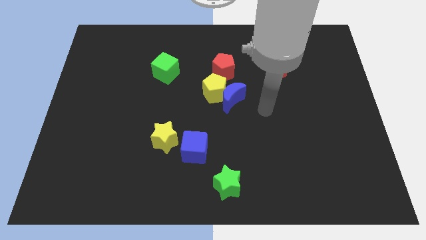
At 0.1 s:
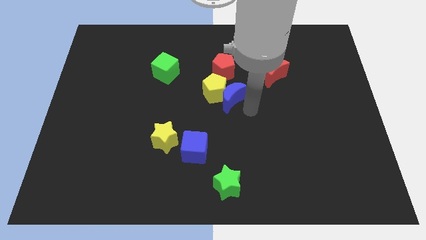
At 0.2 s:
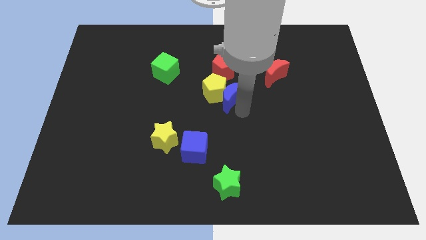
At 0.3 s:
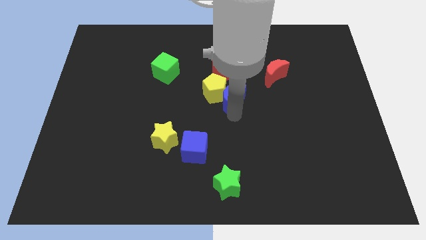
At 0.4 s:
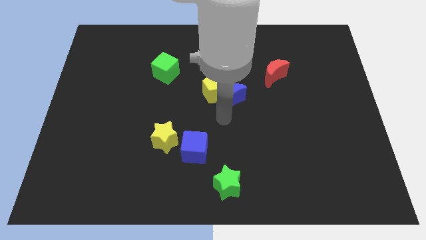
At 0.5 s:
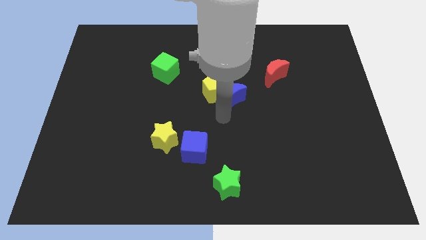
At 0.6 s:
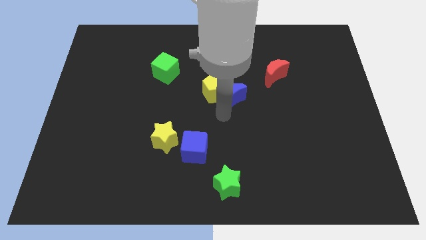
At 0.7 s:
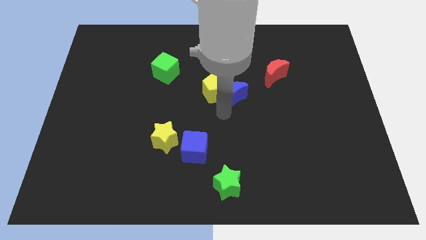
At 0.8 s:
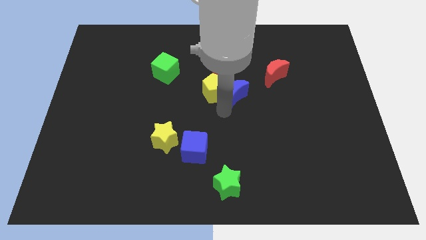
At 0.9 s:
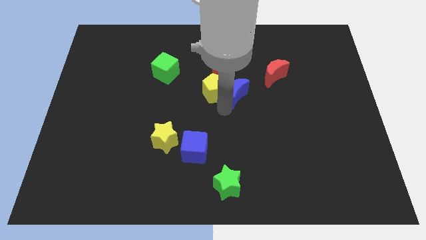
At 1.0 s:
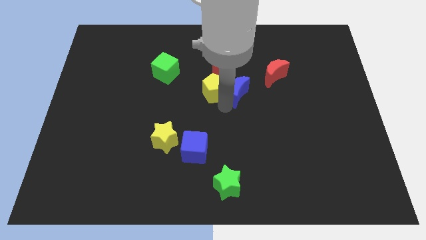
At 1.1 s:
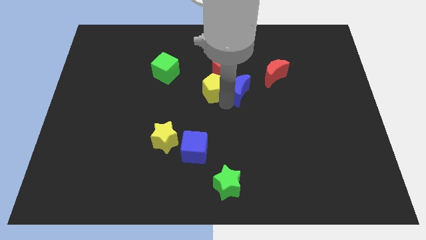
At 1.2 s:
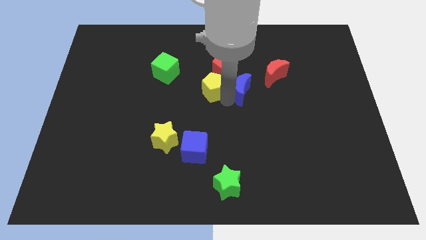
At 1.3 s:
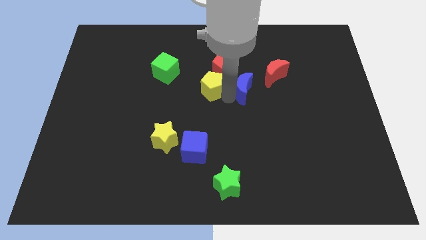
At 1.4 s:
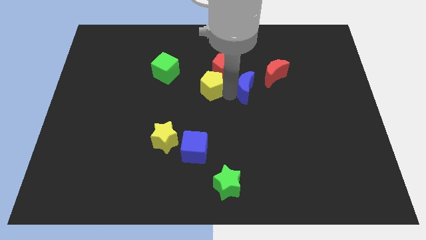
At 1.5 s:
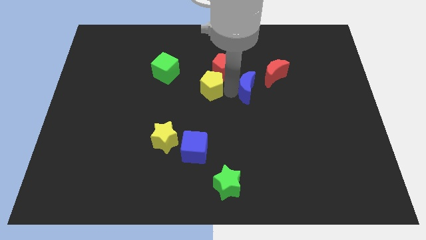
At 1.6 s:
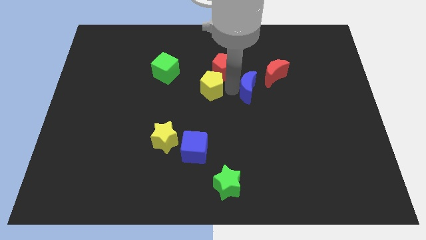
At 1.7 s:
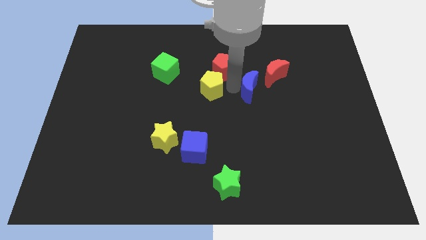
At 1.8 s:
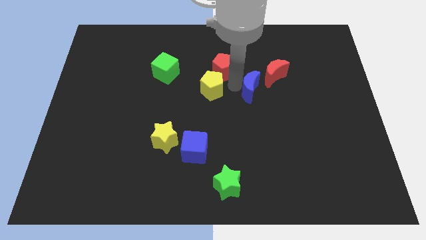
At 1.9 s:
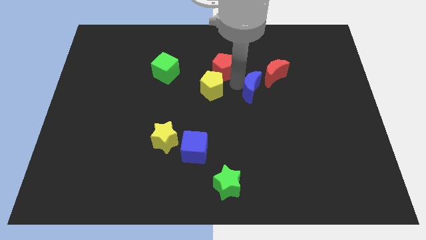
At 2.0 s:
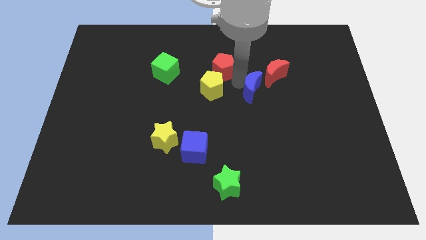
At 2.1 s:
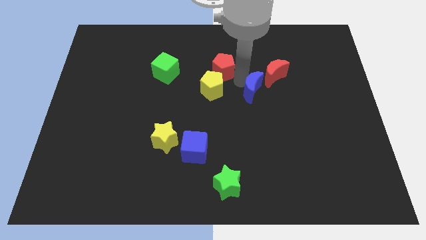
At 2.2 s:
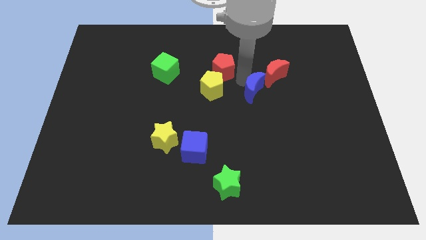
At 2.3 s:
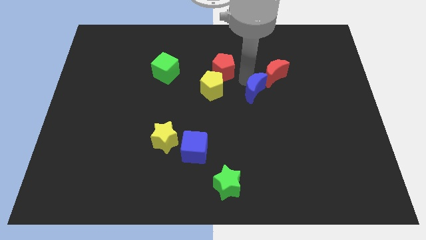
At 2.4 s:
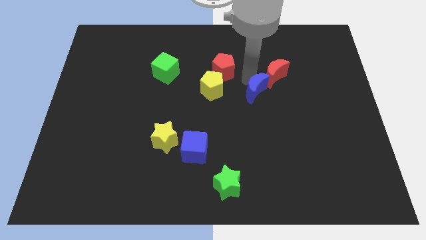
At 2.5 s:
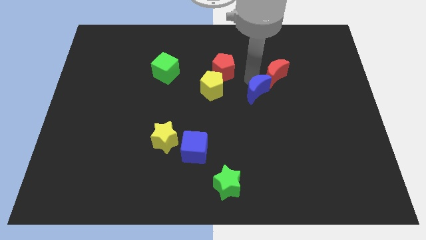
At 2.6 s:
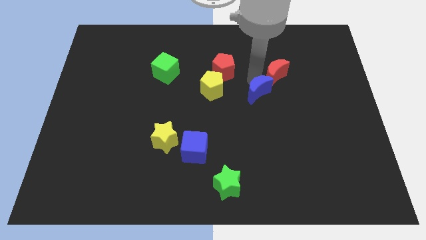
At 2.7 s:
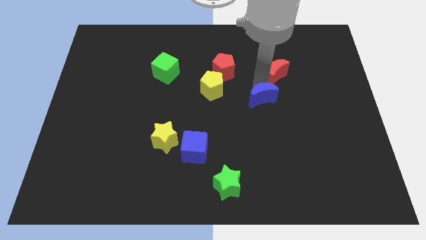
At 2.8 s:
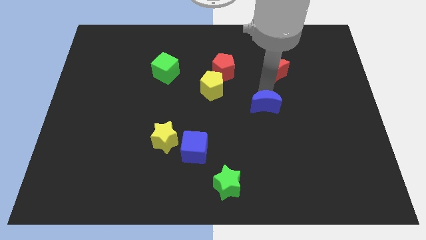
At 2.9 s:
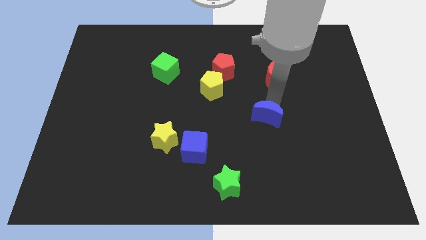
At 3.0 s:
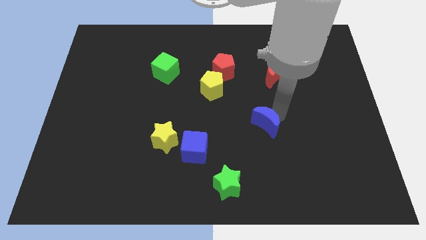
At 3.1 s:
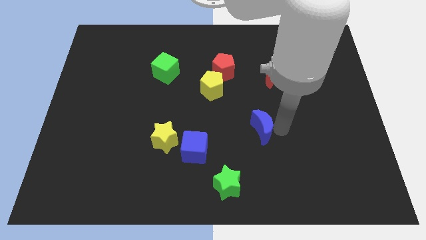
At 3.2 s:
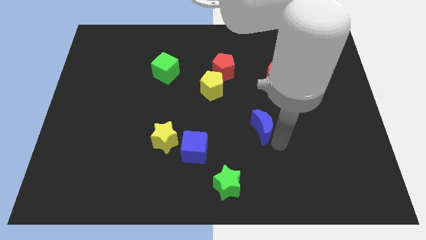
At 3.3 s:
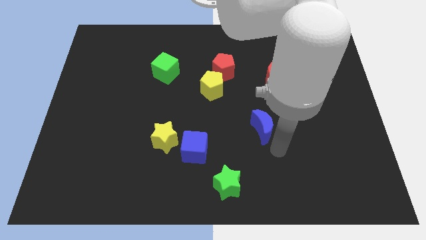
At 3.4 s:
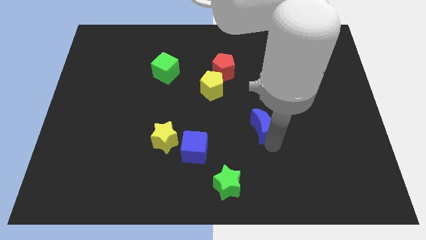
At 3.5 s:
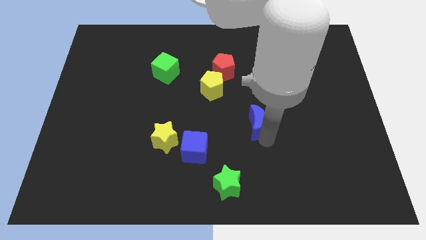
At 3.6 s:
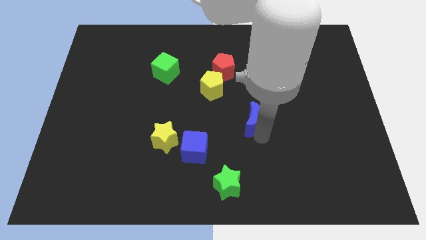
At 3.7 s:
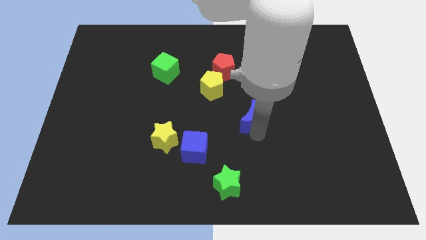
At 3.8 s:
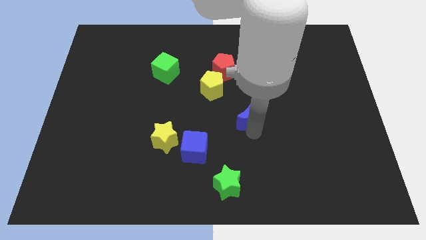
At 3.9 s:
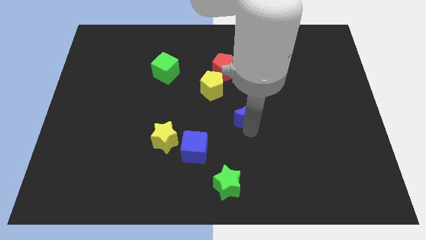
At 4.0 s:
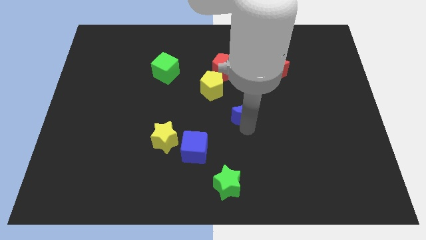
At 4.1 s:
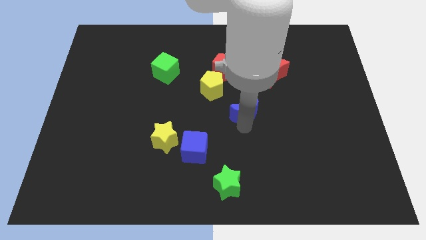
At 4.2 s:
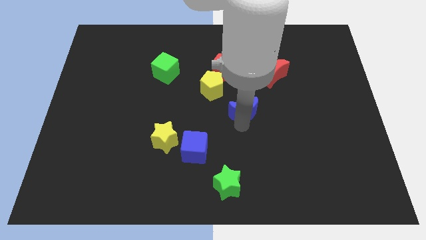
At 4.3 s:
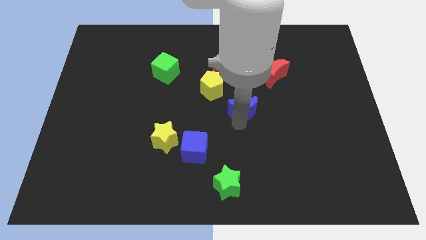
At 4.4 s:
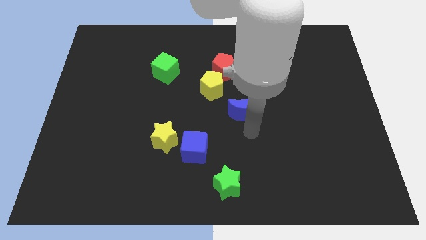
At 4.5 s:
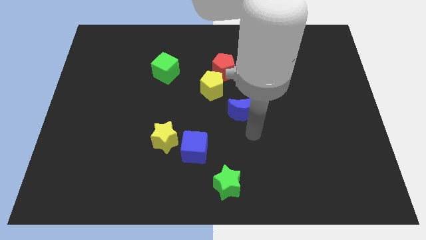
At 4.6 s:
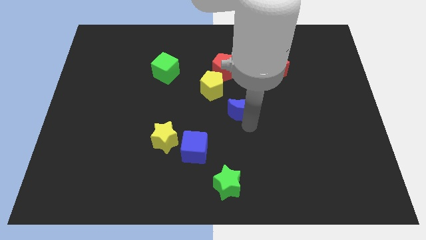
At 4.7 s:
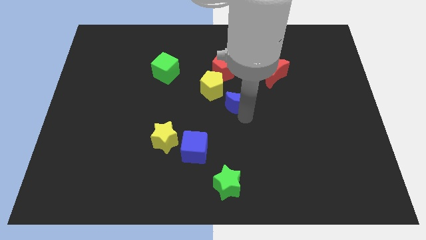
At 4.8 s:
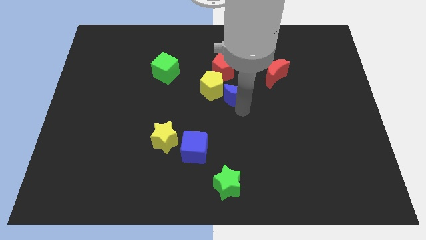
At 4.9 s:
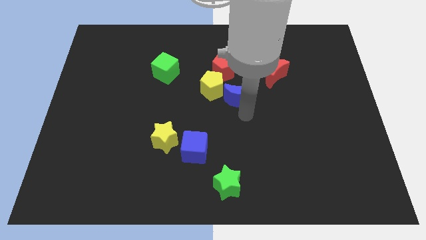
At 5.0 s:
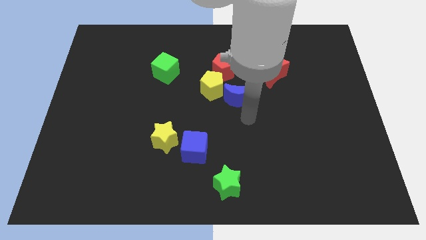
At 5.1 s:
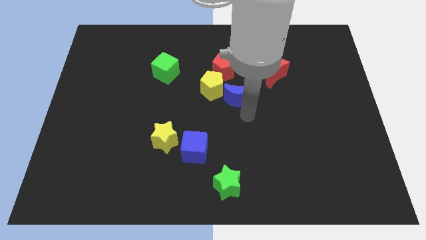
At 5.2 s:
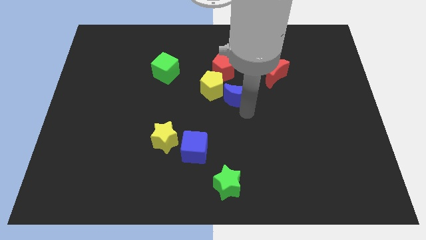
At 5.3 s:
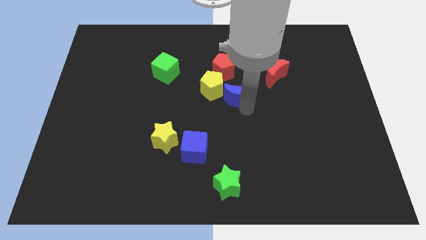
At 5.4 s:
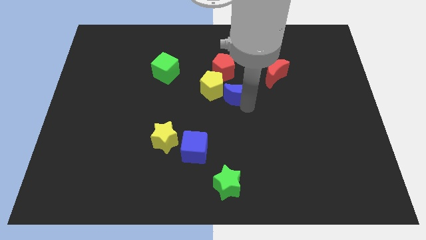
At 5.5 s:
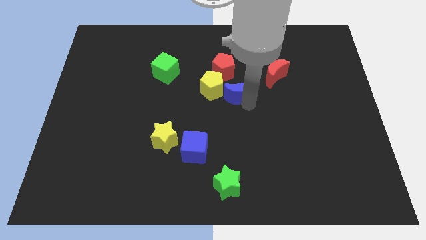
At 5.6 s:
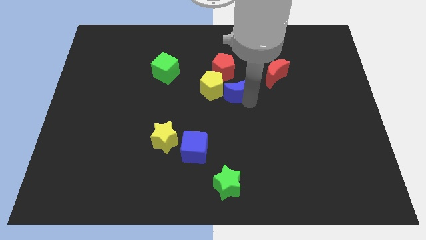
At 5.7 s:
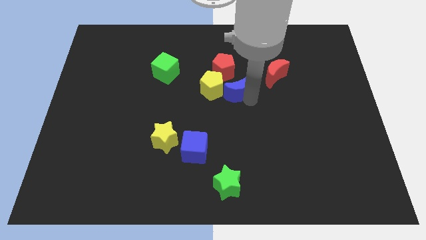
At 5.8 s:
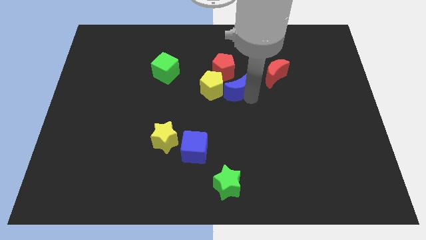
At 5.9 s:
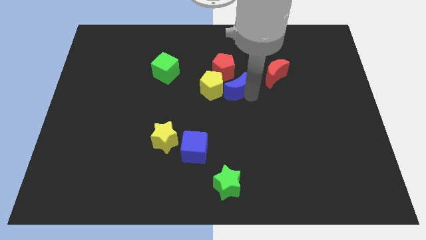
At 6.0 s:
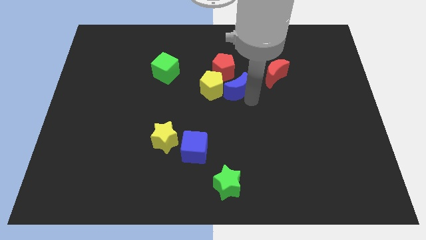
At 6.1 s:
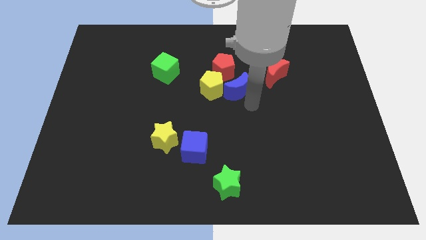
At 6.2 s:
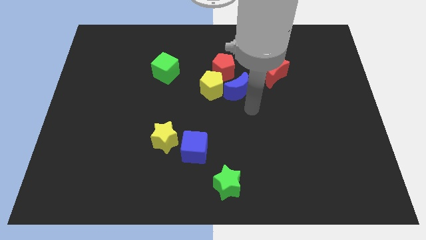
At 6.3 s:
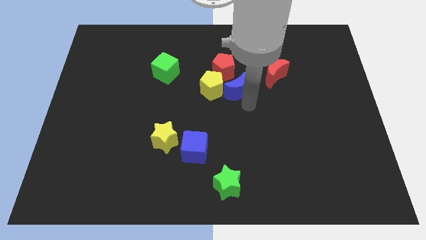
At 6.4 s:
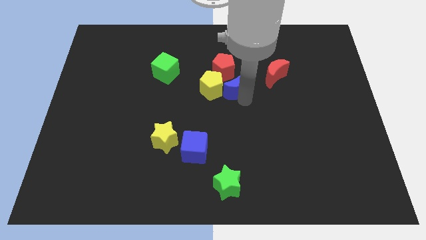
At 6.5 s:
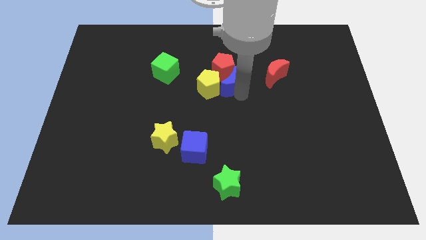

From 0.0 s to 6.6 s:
slide the blue moon towards the red pentagon
